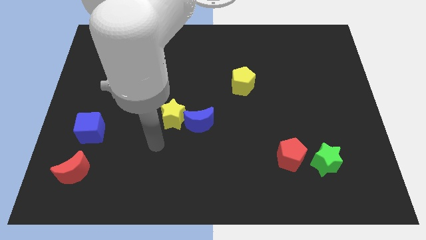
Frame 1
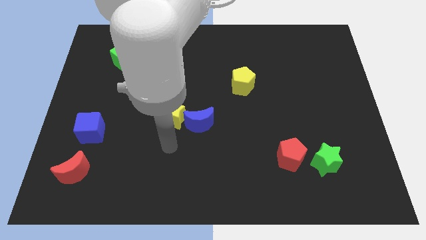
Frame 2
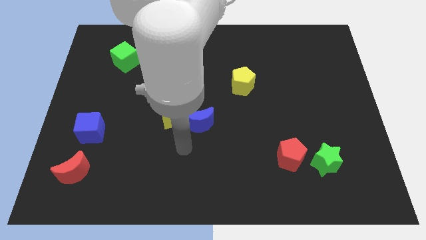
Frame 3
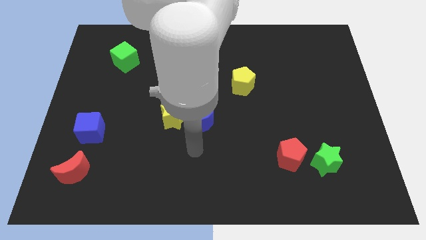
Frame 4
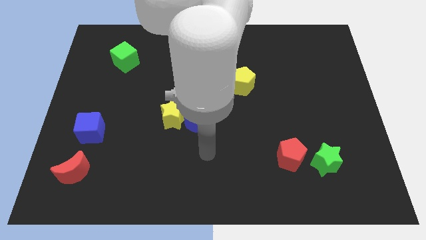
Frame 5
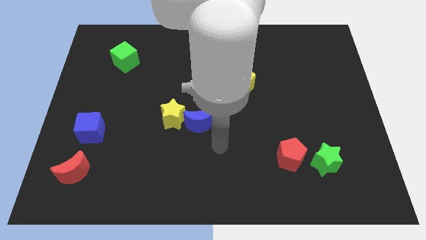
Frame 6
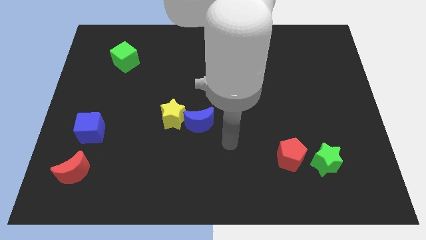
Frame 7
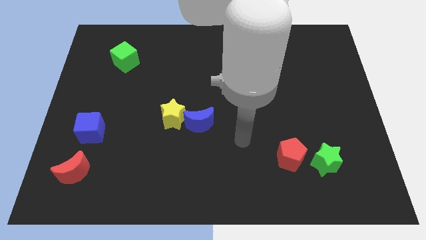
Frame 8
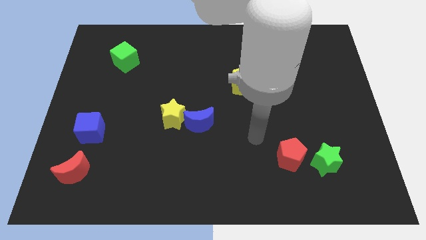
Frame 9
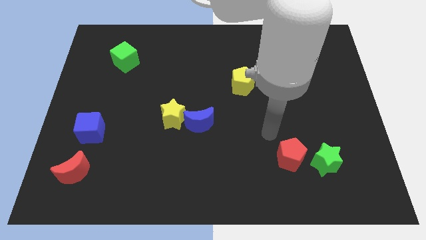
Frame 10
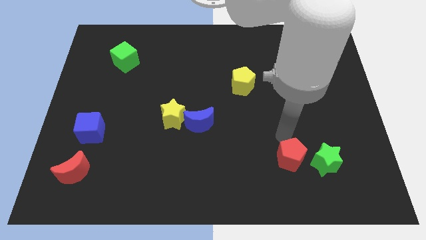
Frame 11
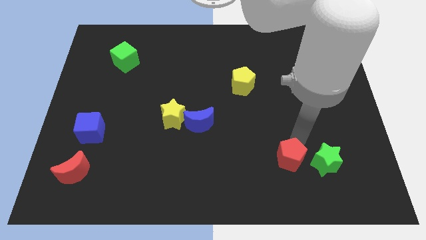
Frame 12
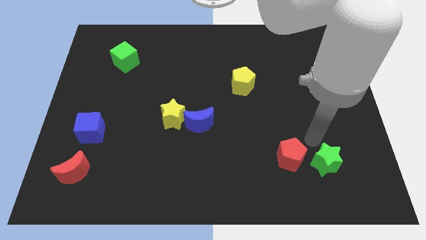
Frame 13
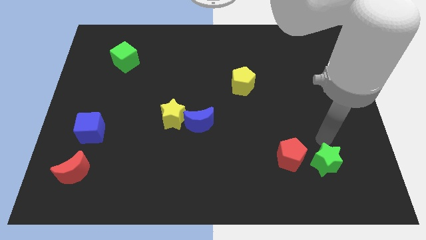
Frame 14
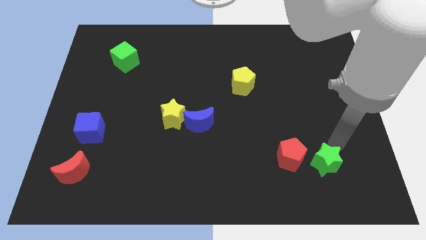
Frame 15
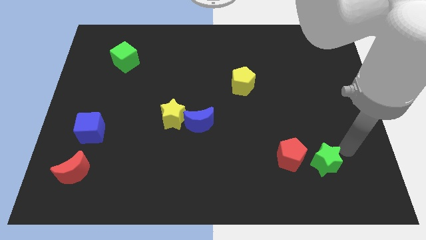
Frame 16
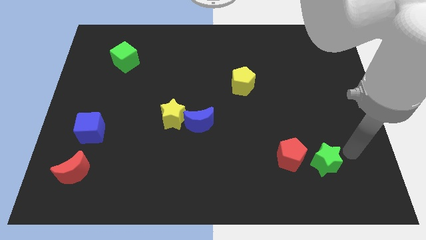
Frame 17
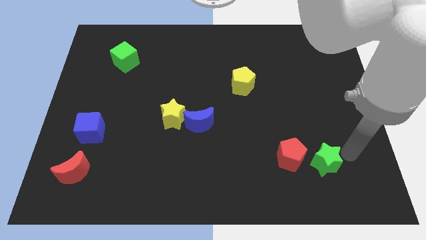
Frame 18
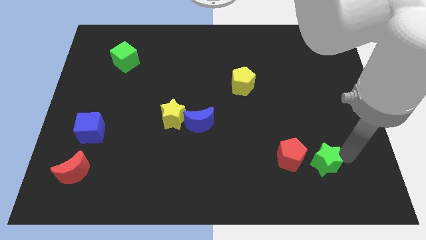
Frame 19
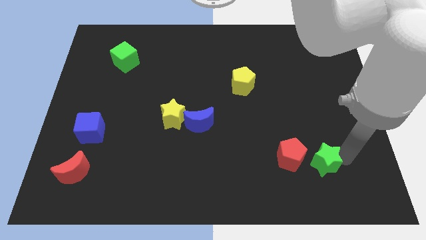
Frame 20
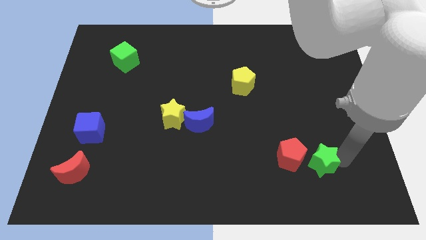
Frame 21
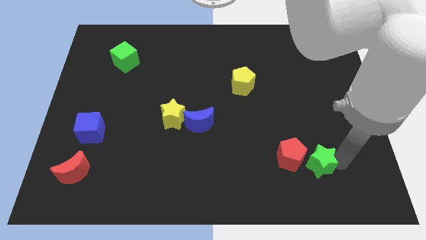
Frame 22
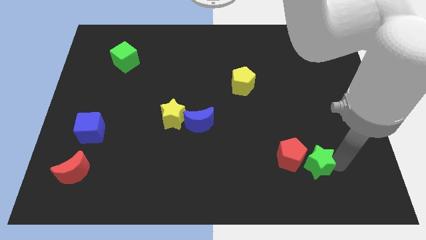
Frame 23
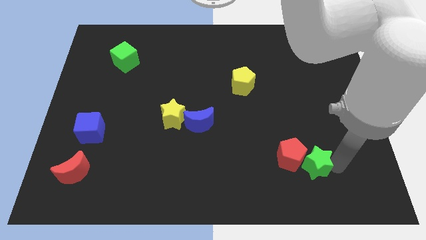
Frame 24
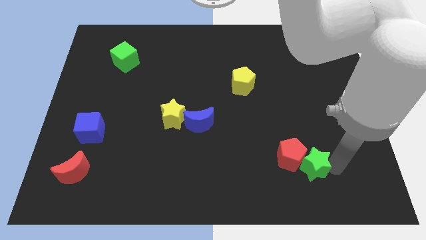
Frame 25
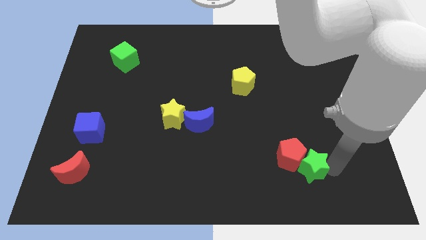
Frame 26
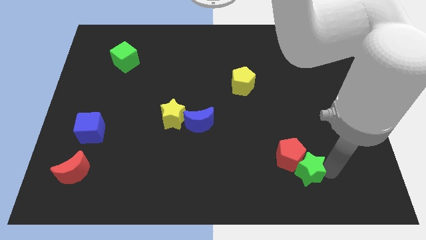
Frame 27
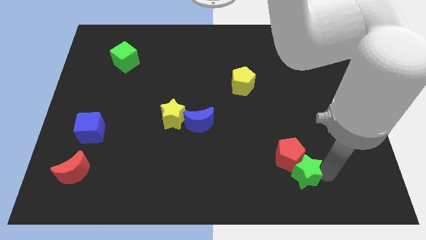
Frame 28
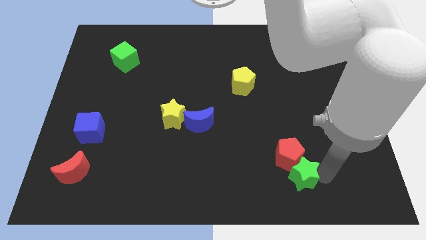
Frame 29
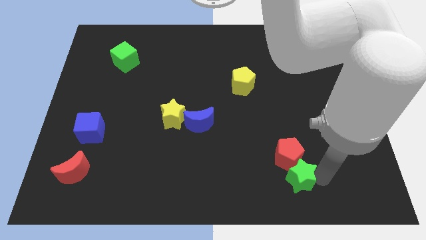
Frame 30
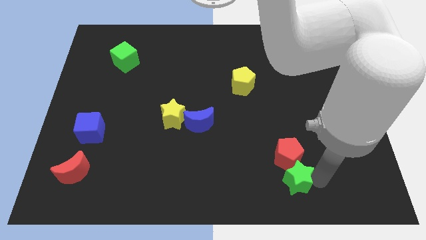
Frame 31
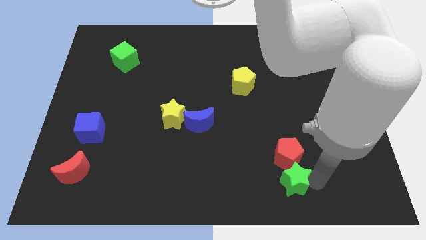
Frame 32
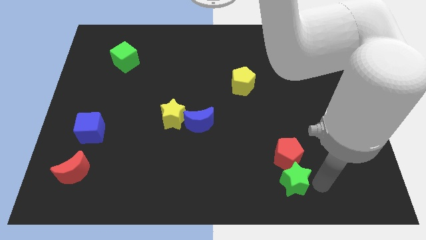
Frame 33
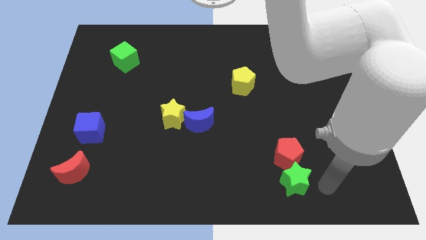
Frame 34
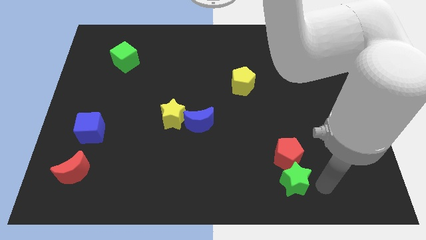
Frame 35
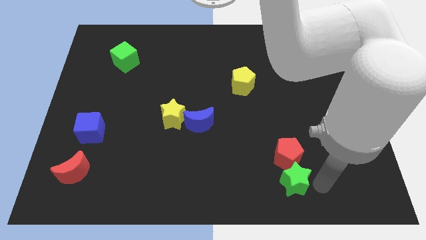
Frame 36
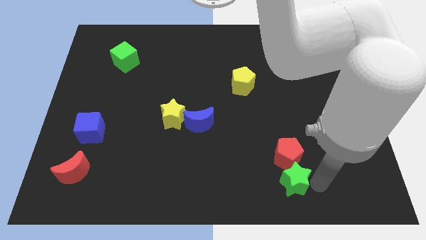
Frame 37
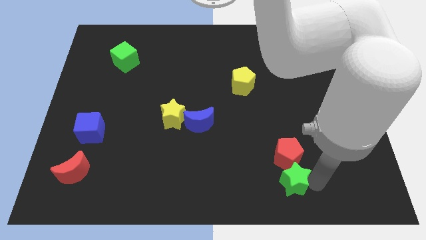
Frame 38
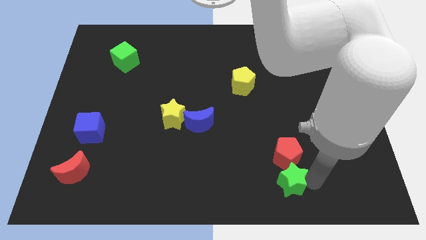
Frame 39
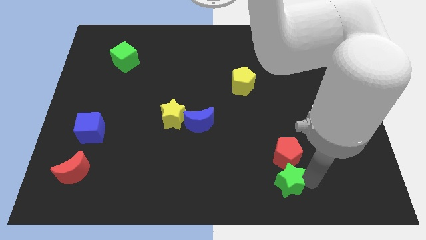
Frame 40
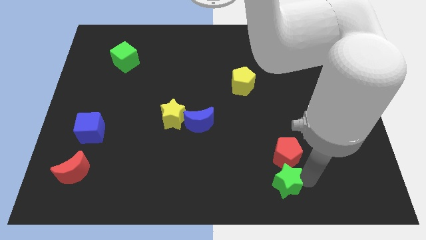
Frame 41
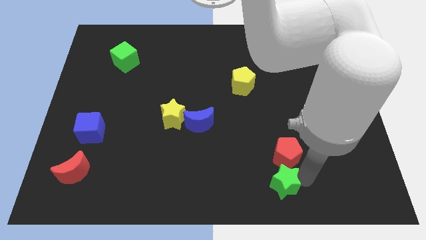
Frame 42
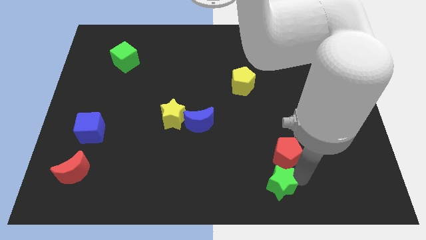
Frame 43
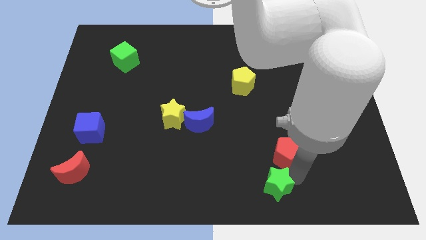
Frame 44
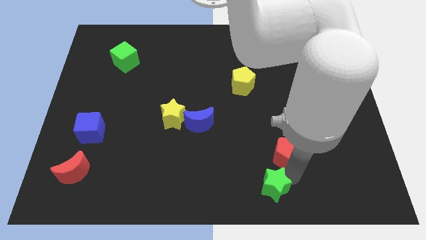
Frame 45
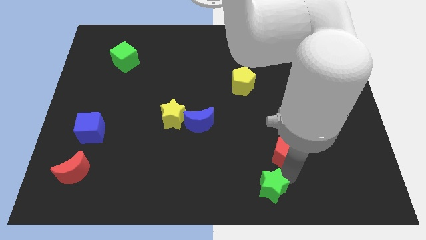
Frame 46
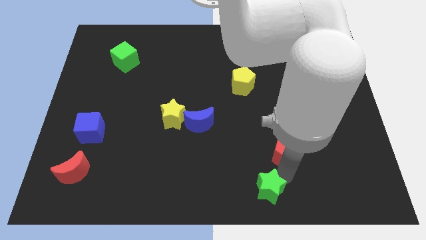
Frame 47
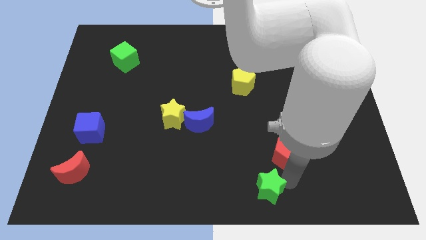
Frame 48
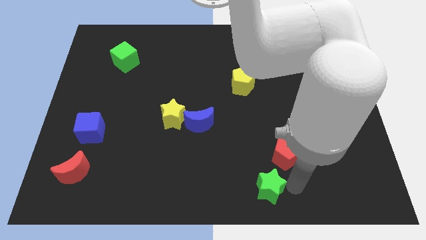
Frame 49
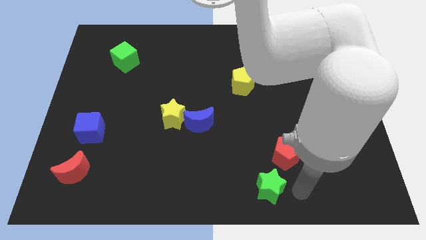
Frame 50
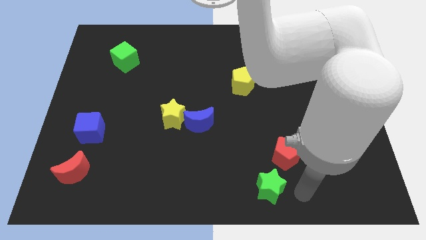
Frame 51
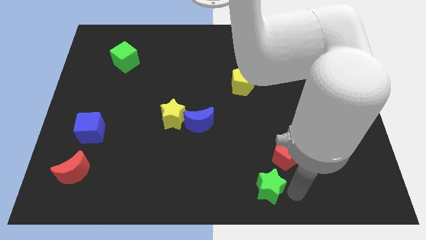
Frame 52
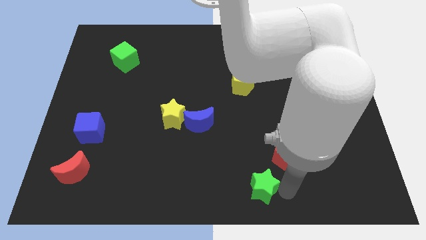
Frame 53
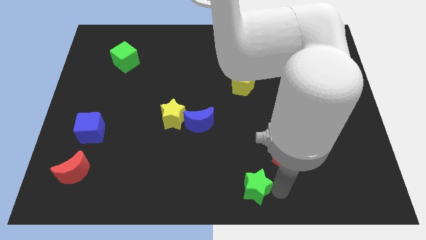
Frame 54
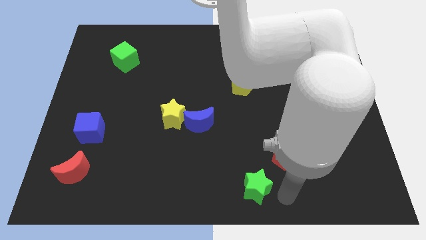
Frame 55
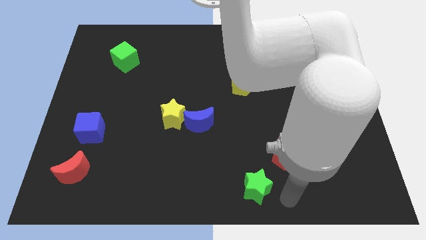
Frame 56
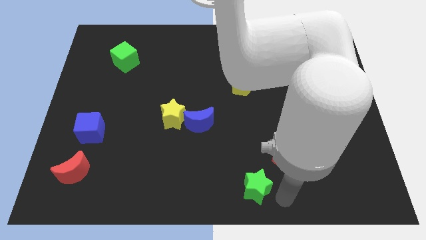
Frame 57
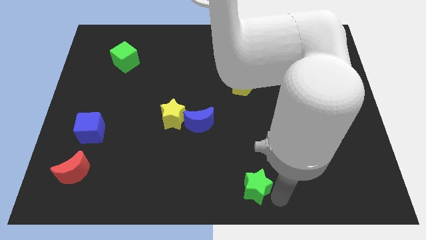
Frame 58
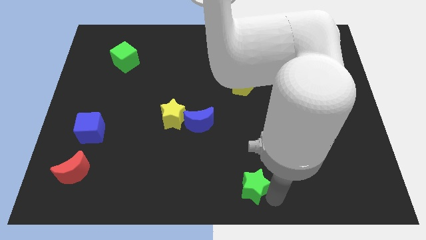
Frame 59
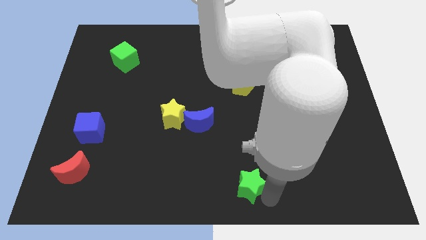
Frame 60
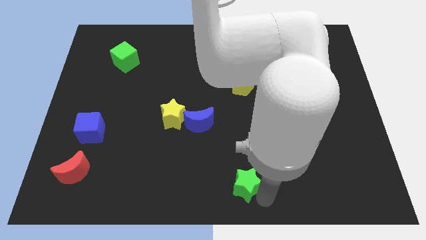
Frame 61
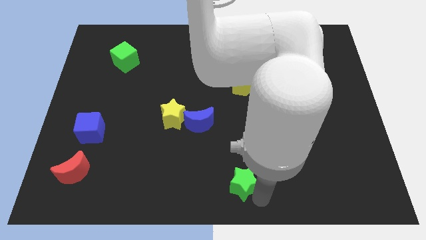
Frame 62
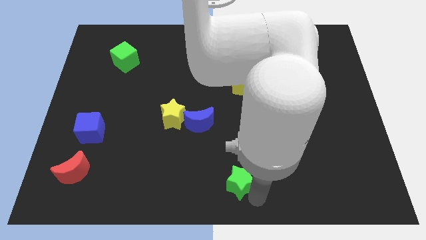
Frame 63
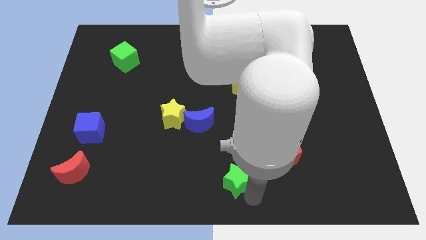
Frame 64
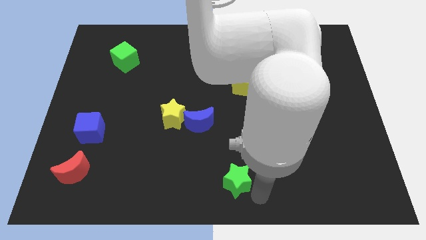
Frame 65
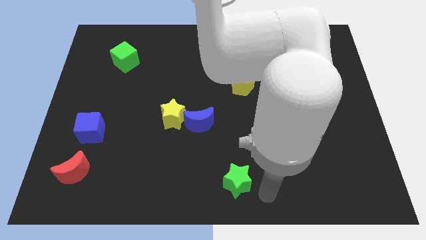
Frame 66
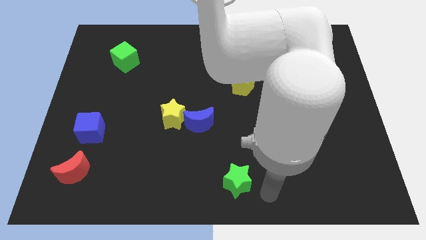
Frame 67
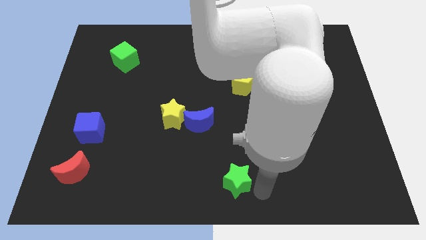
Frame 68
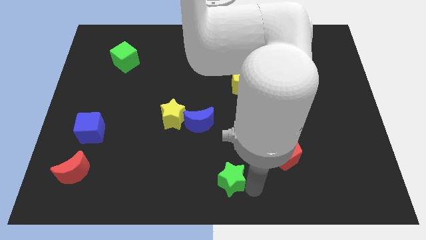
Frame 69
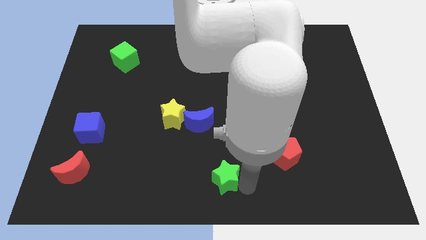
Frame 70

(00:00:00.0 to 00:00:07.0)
move the green star to the left

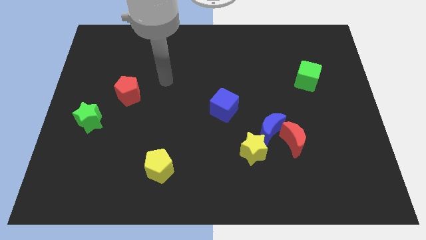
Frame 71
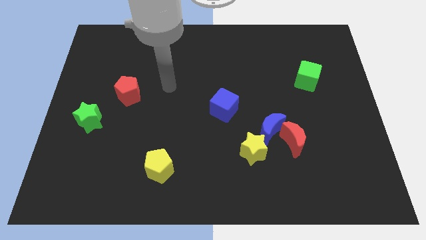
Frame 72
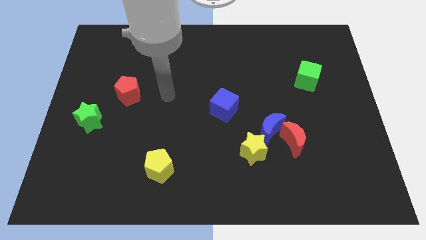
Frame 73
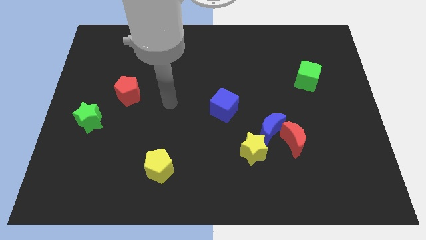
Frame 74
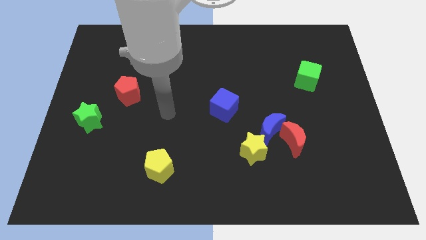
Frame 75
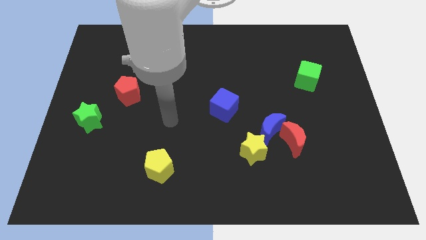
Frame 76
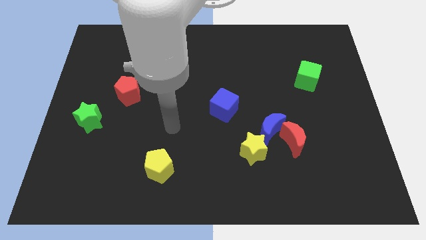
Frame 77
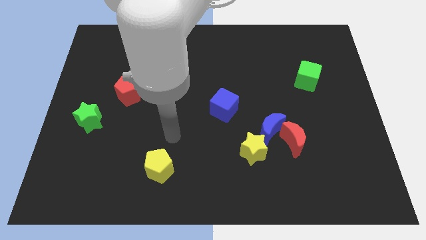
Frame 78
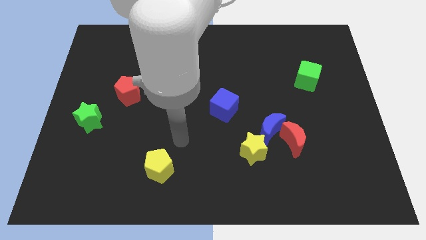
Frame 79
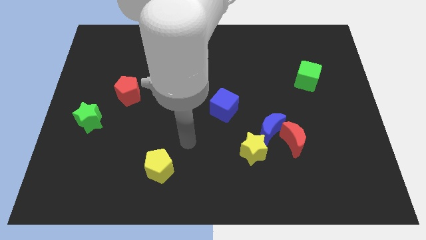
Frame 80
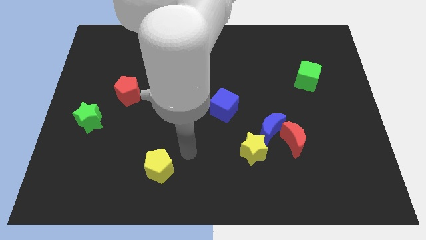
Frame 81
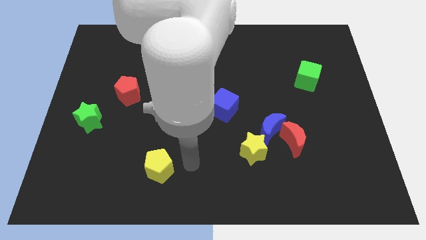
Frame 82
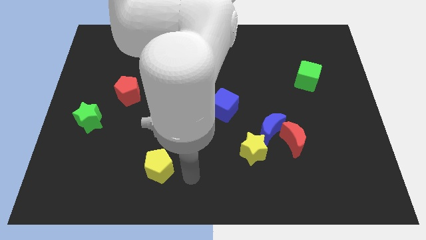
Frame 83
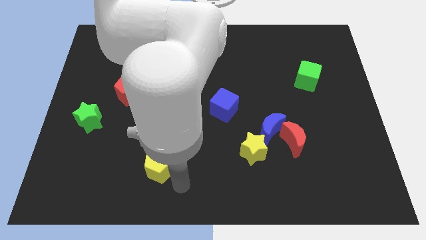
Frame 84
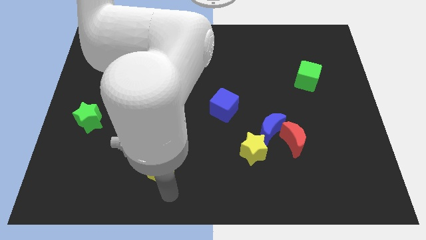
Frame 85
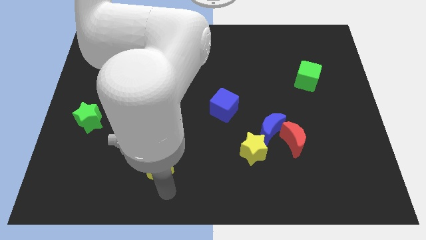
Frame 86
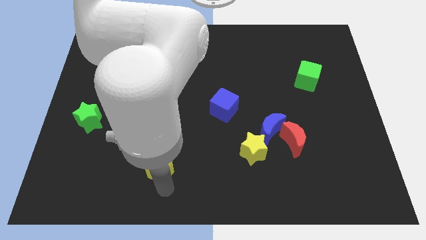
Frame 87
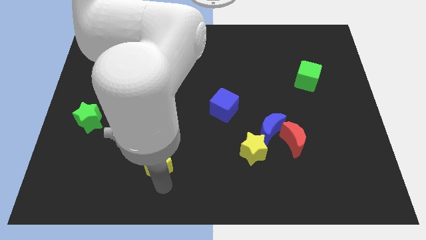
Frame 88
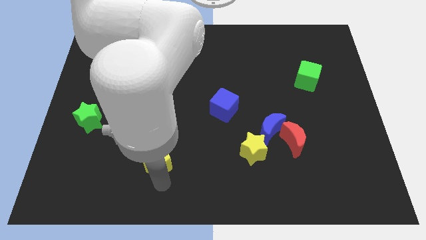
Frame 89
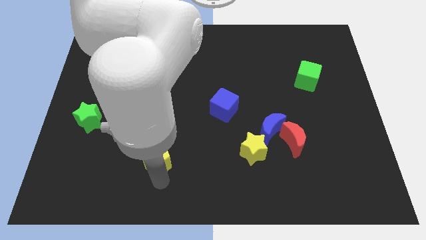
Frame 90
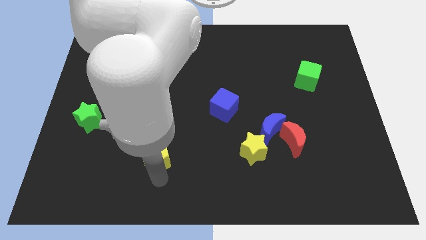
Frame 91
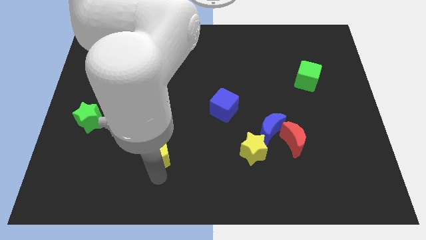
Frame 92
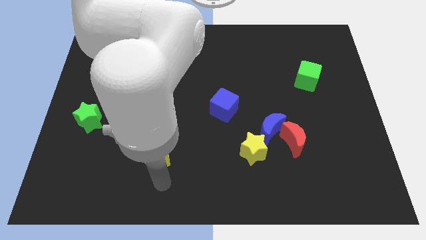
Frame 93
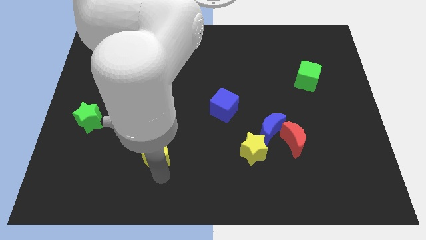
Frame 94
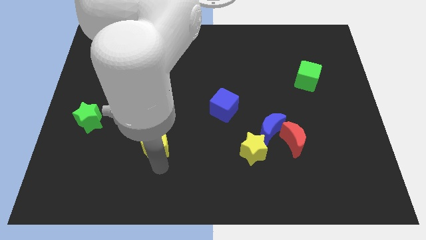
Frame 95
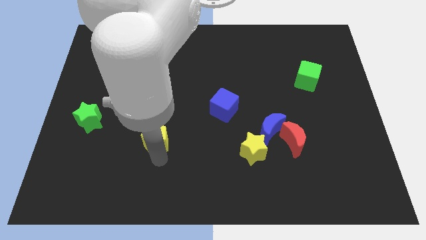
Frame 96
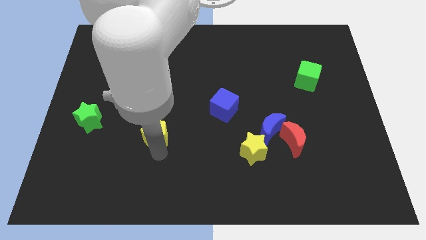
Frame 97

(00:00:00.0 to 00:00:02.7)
move the yellow pentagon a little up
